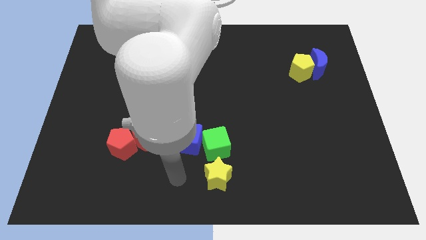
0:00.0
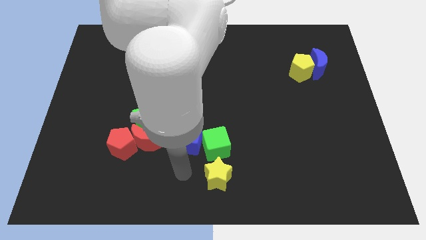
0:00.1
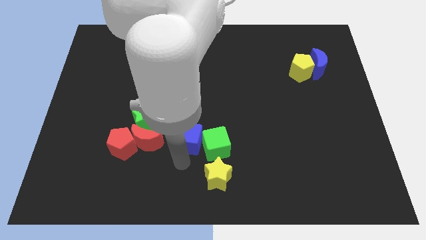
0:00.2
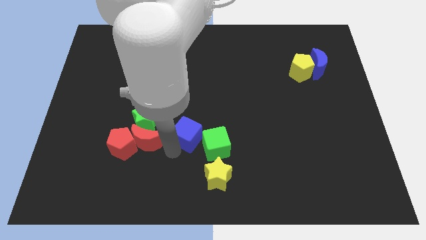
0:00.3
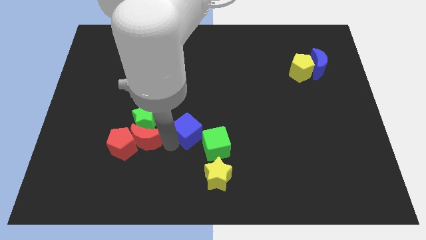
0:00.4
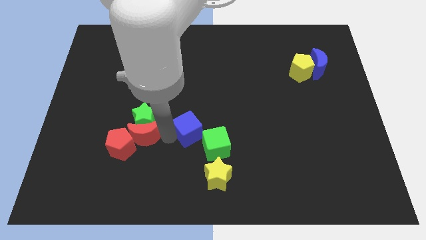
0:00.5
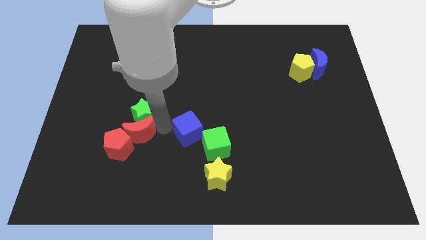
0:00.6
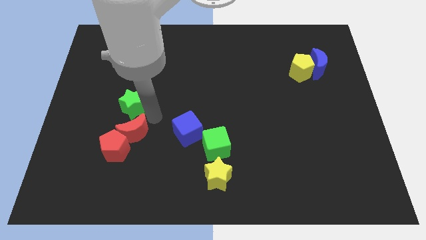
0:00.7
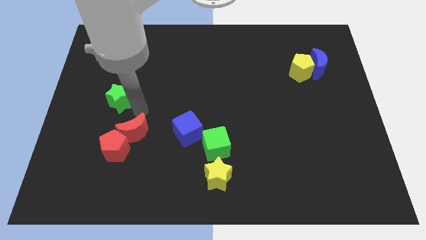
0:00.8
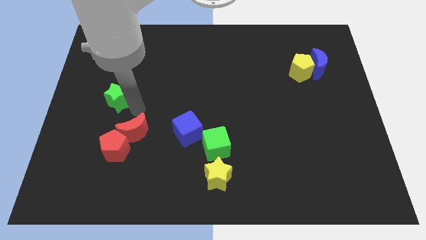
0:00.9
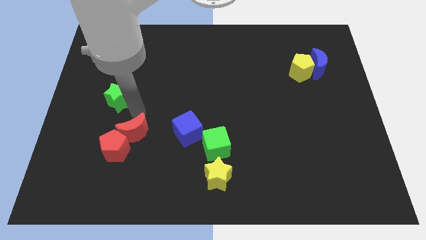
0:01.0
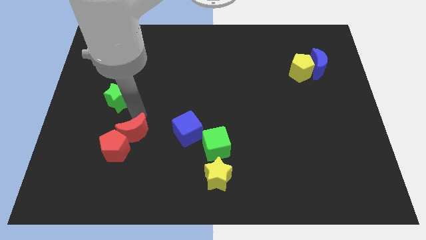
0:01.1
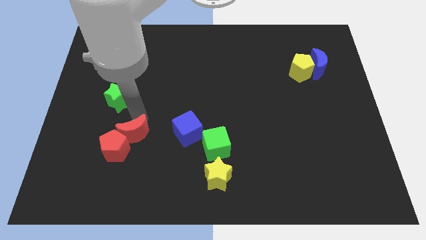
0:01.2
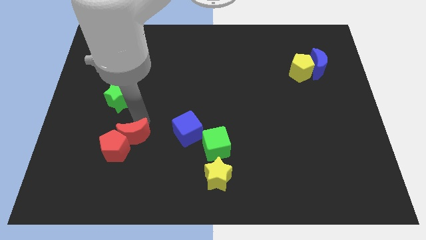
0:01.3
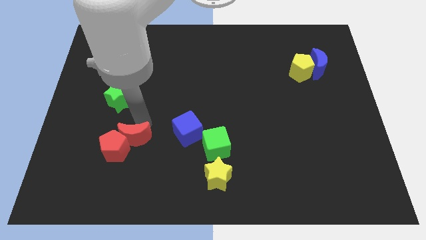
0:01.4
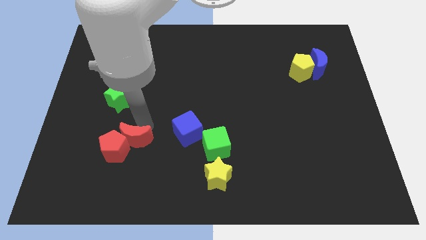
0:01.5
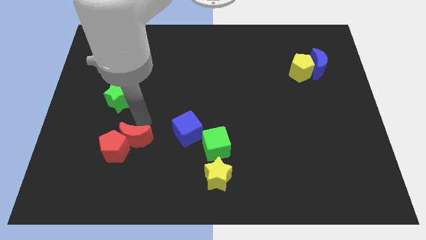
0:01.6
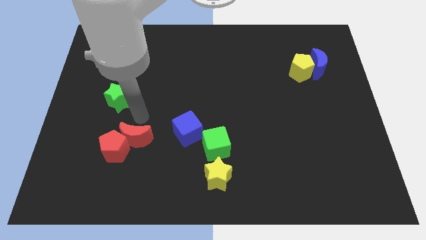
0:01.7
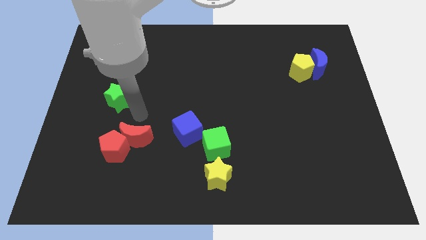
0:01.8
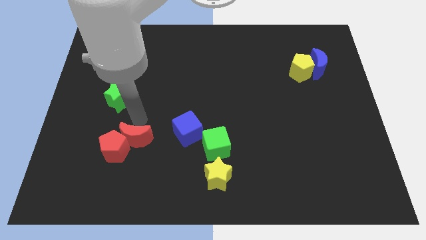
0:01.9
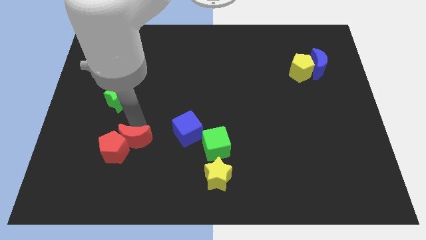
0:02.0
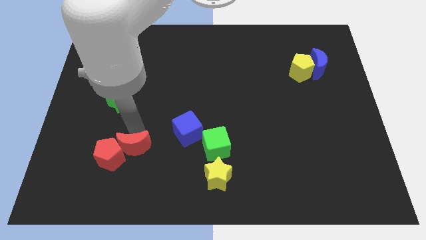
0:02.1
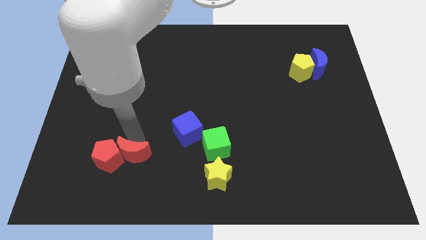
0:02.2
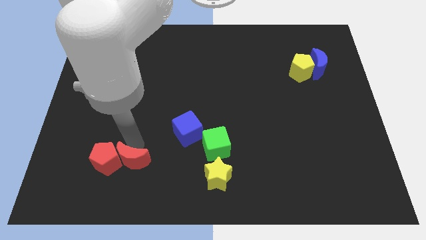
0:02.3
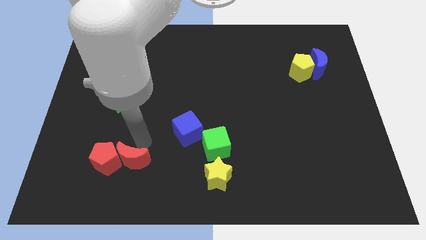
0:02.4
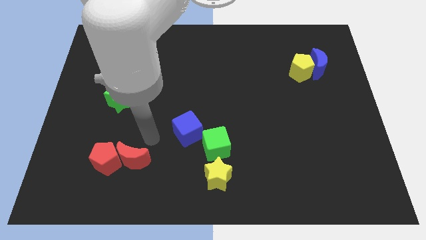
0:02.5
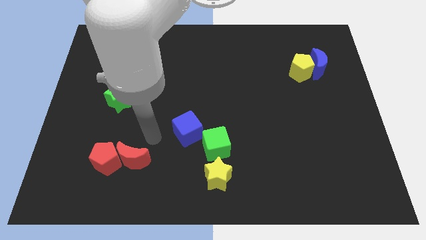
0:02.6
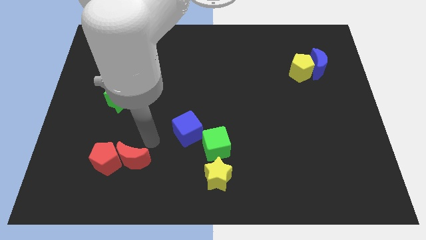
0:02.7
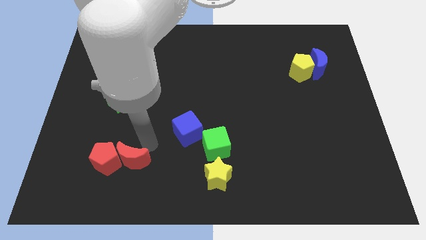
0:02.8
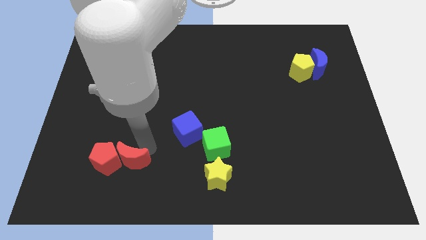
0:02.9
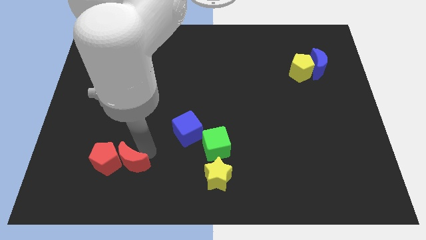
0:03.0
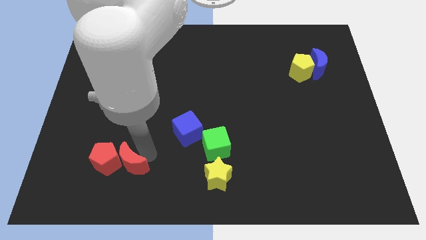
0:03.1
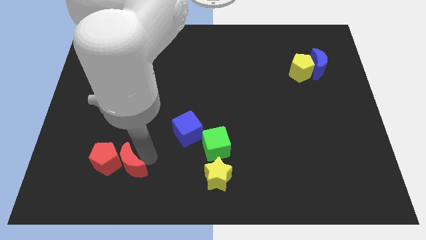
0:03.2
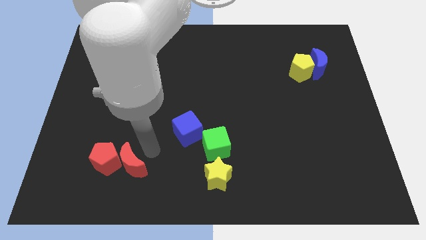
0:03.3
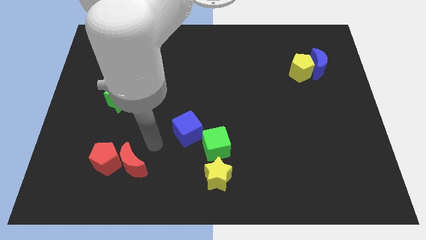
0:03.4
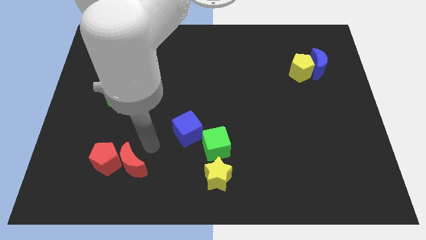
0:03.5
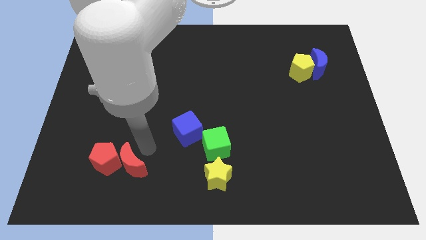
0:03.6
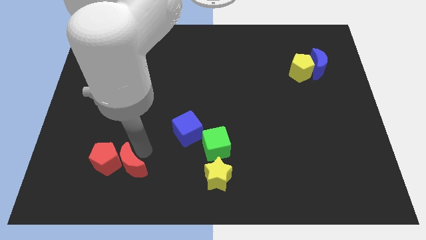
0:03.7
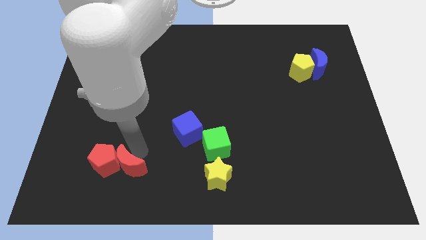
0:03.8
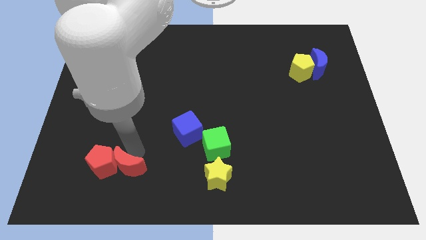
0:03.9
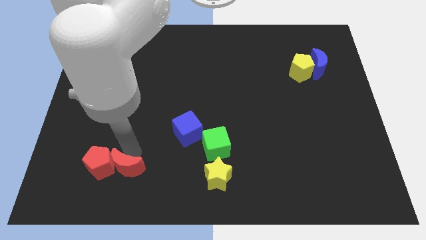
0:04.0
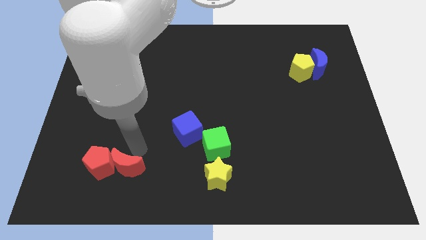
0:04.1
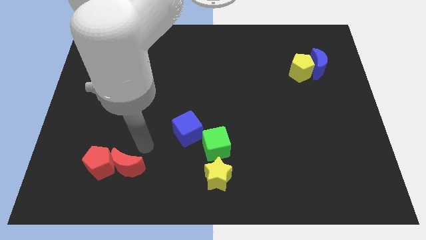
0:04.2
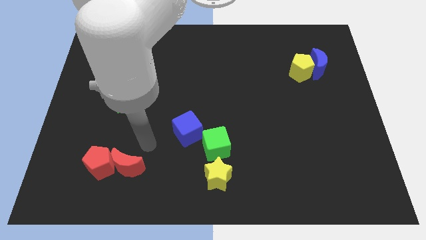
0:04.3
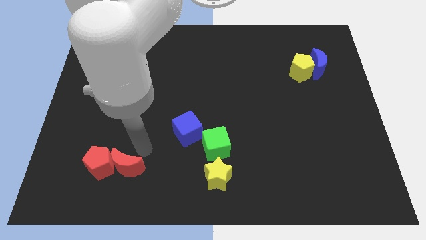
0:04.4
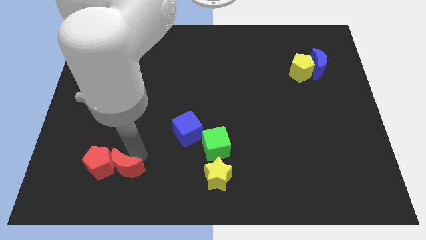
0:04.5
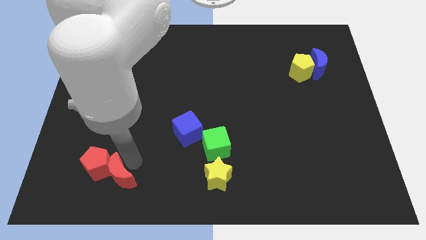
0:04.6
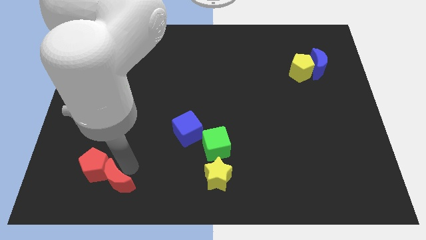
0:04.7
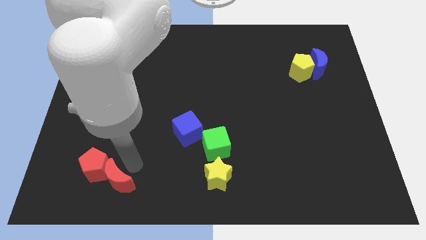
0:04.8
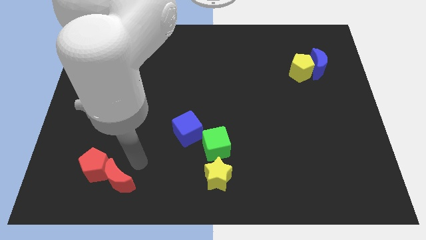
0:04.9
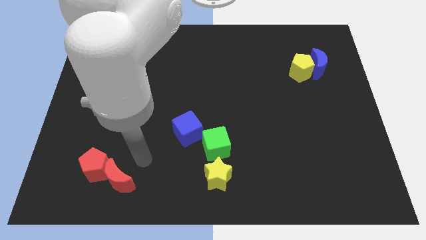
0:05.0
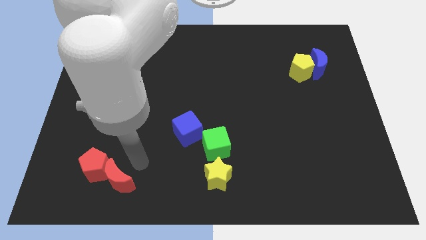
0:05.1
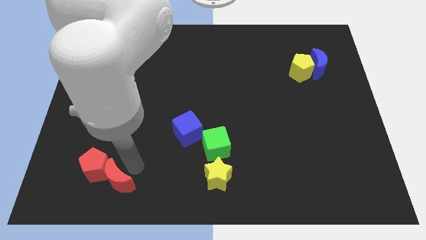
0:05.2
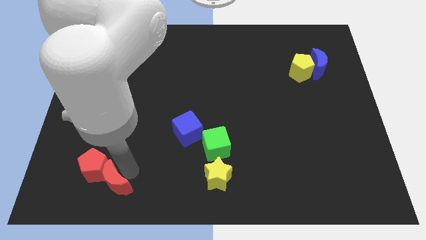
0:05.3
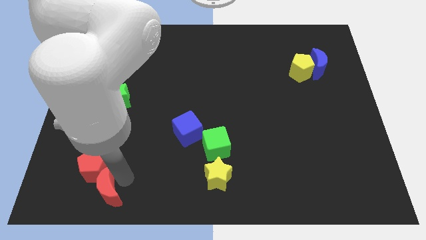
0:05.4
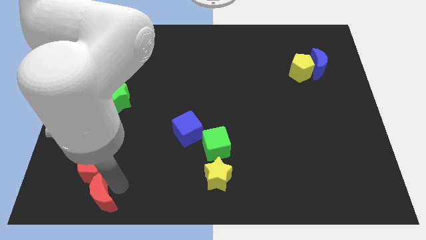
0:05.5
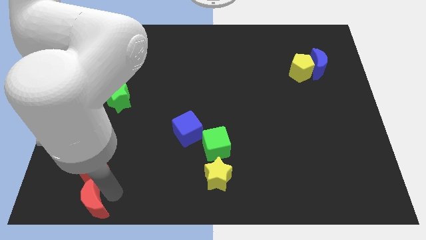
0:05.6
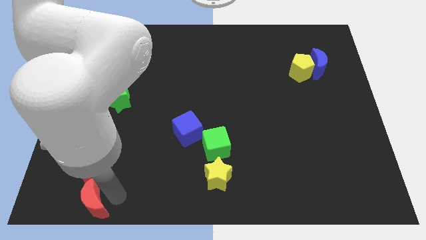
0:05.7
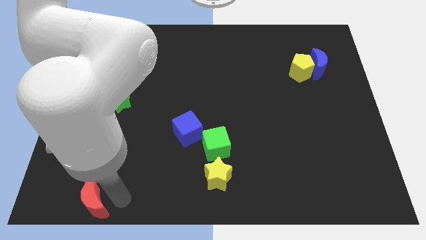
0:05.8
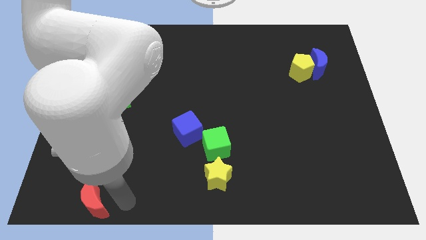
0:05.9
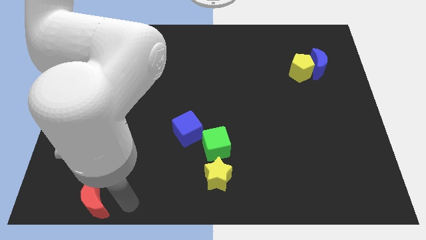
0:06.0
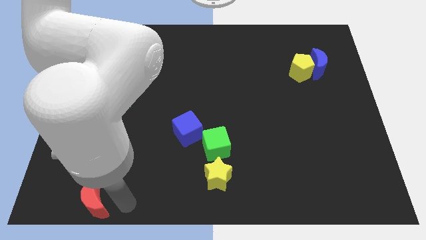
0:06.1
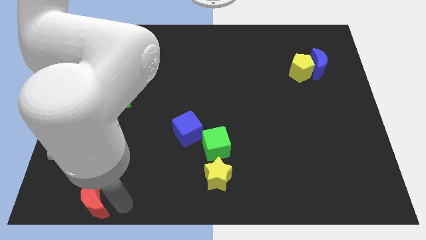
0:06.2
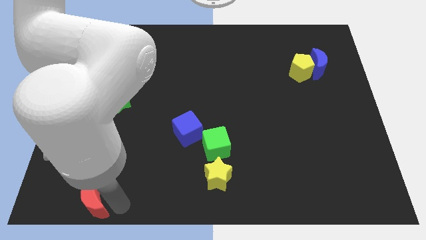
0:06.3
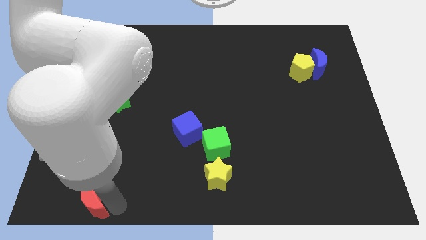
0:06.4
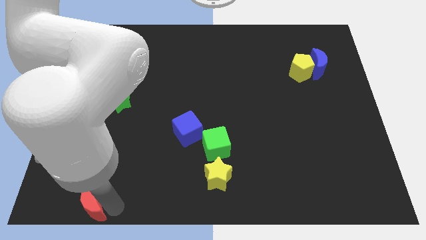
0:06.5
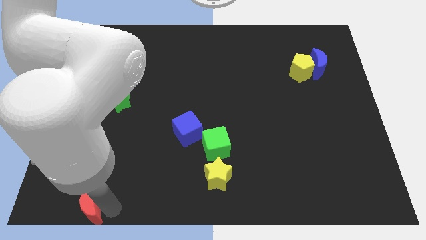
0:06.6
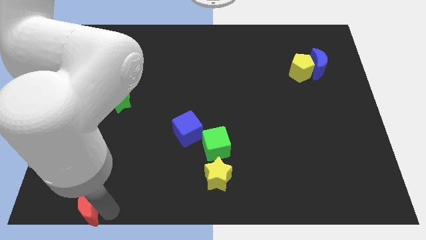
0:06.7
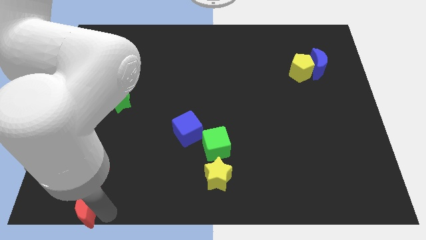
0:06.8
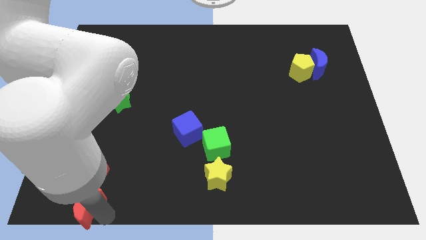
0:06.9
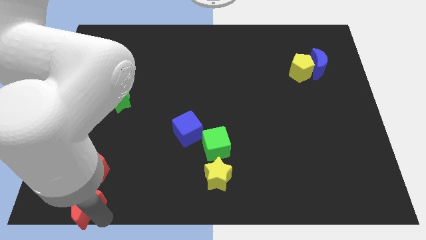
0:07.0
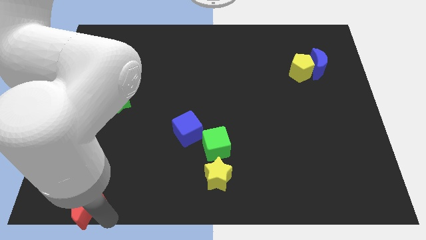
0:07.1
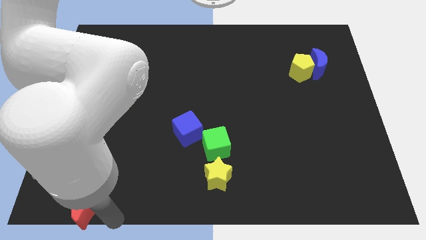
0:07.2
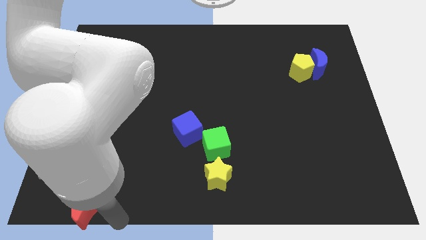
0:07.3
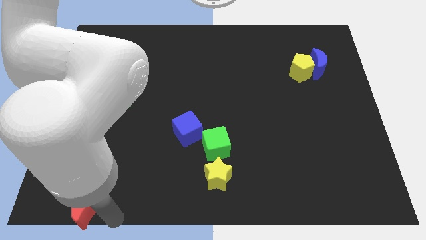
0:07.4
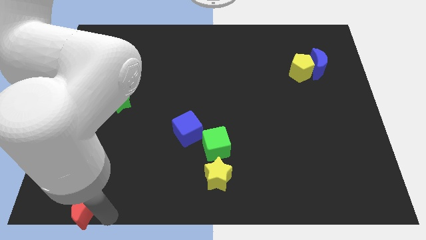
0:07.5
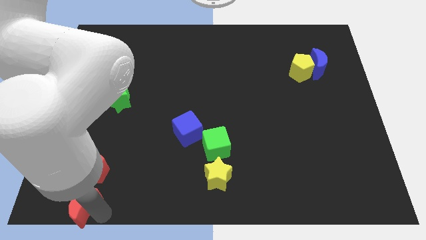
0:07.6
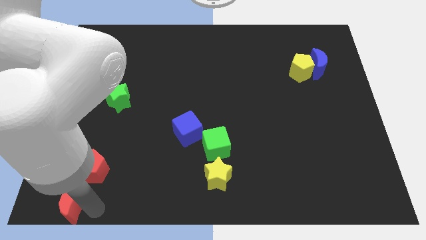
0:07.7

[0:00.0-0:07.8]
put the red moon to the bottom left corner
